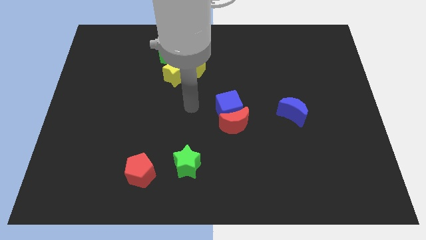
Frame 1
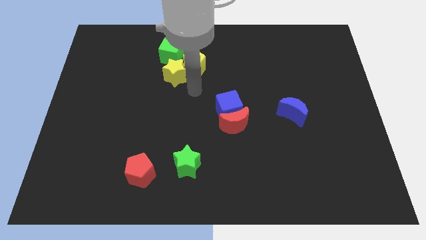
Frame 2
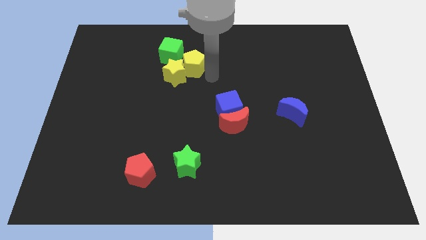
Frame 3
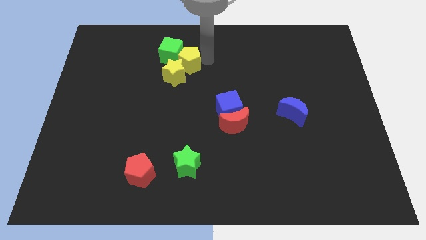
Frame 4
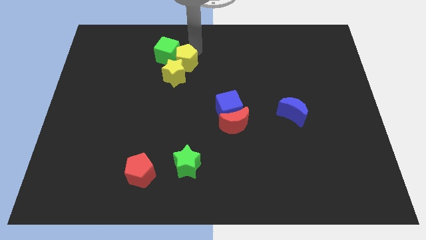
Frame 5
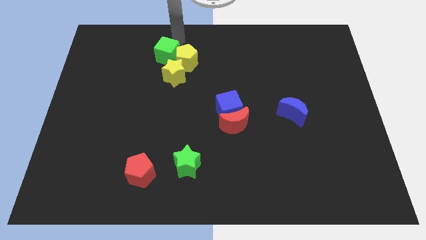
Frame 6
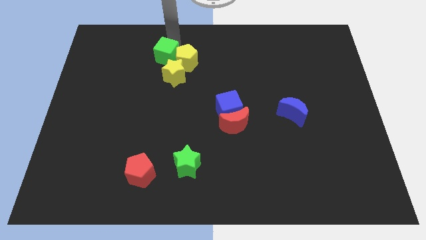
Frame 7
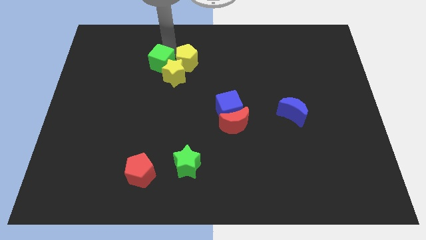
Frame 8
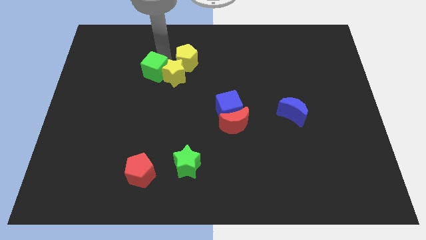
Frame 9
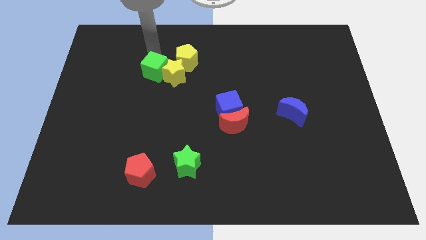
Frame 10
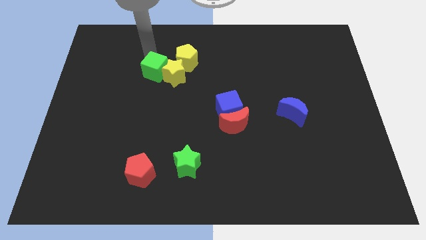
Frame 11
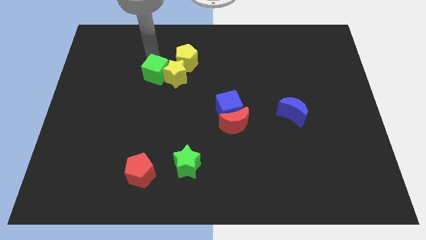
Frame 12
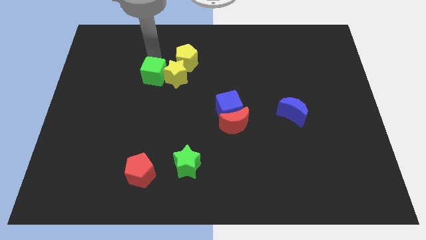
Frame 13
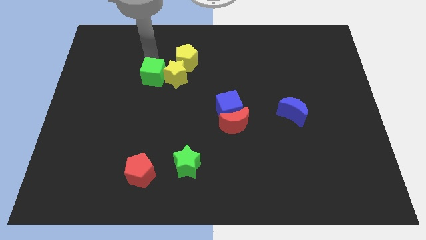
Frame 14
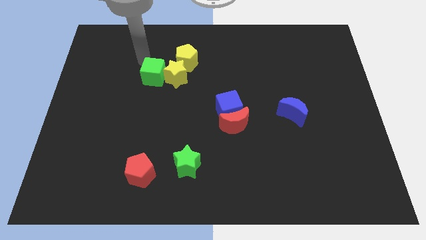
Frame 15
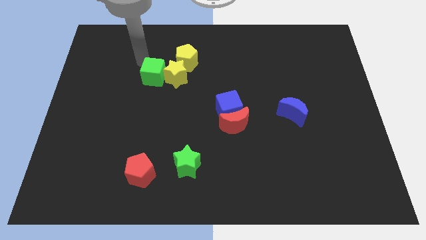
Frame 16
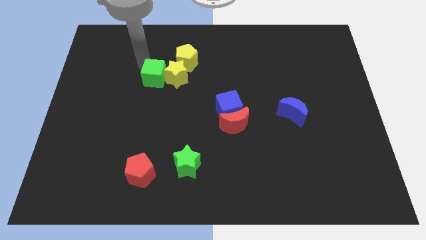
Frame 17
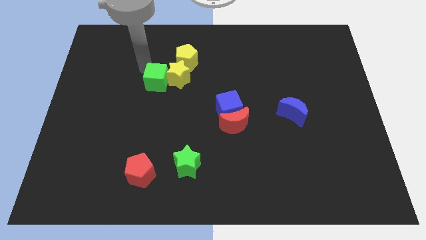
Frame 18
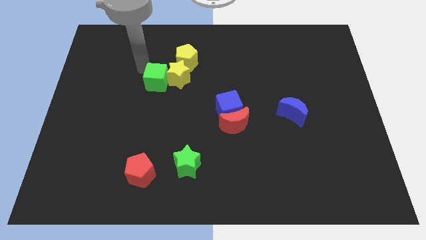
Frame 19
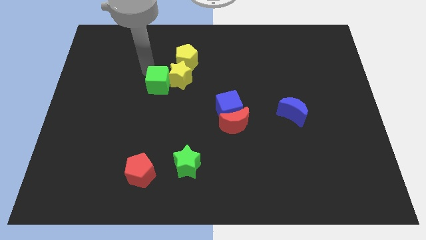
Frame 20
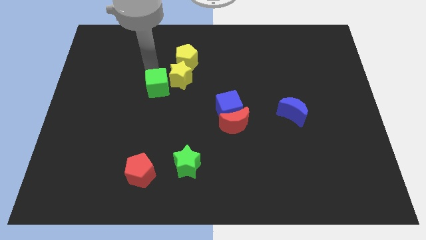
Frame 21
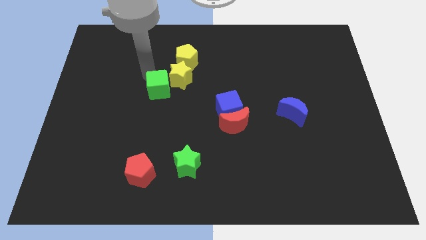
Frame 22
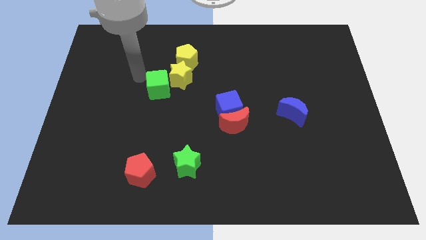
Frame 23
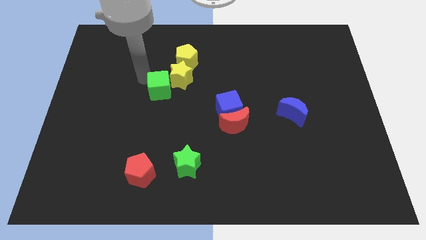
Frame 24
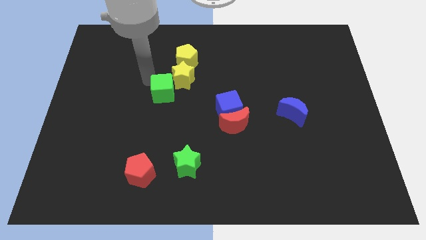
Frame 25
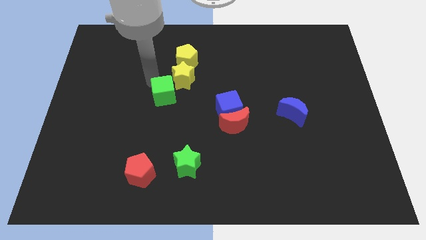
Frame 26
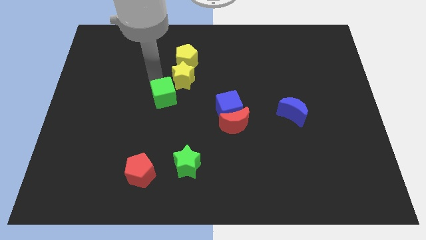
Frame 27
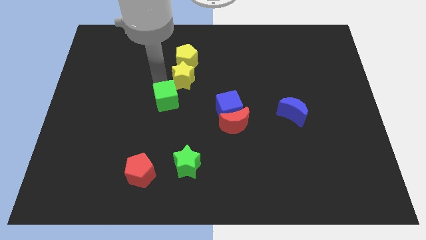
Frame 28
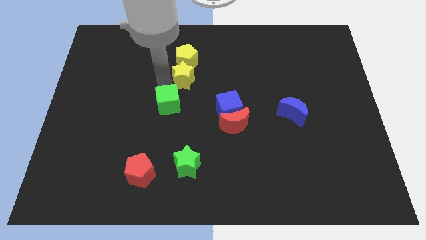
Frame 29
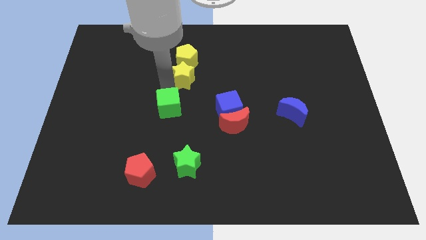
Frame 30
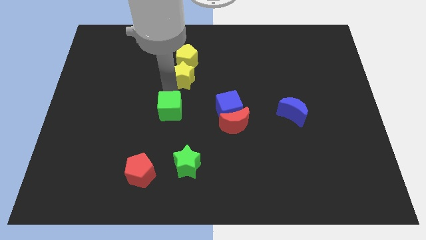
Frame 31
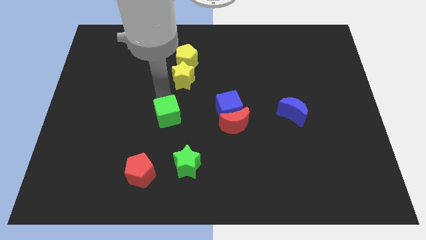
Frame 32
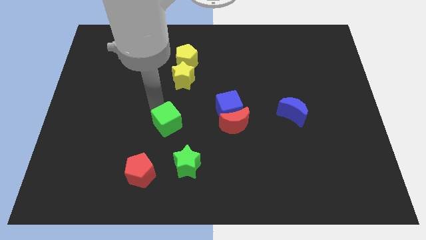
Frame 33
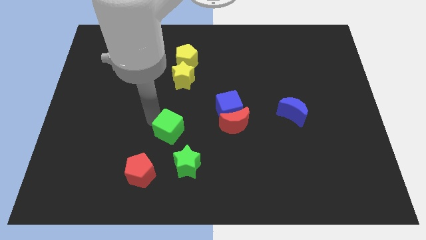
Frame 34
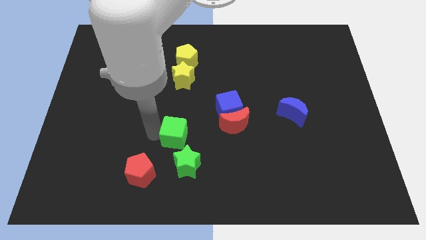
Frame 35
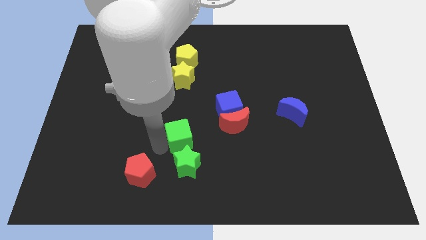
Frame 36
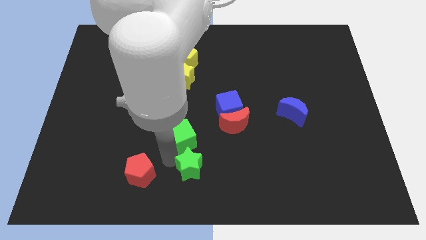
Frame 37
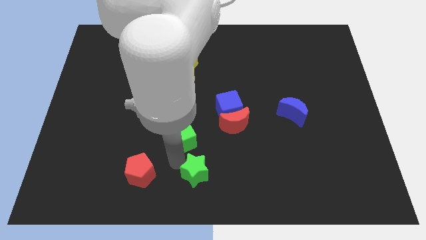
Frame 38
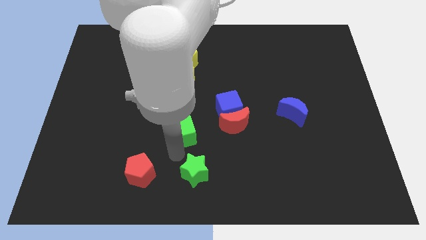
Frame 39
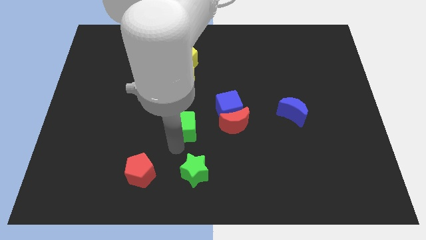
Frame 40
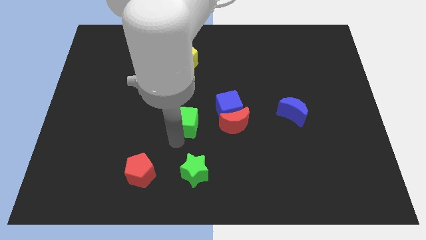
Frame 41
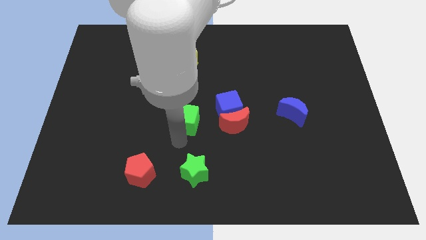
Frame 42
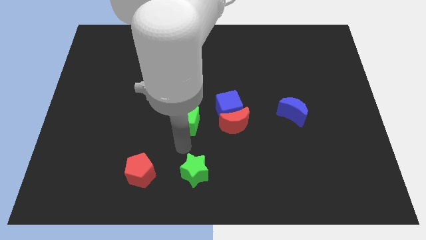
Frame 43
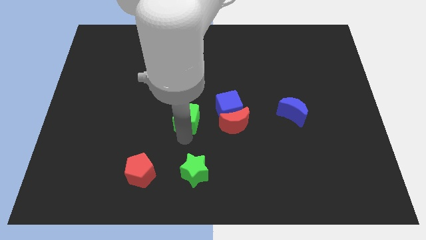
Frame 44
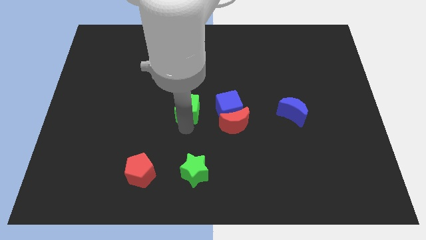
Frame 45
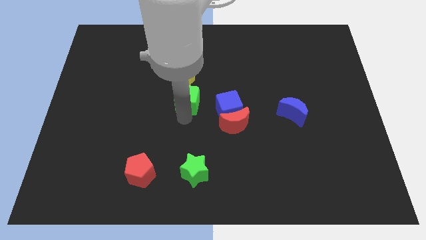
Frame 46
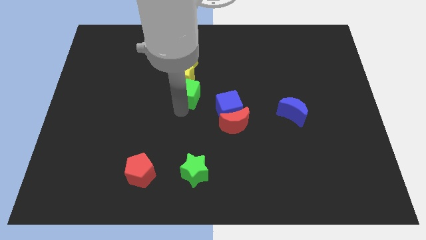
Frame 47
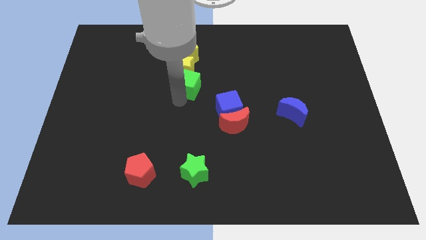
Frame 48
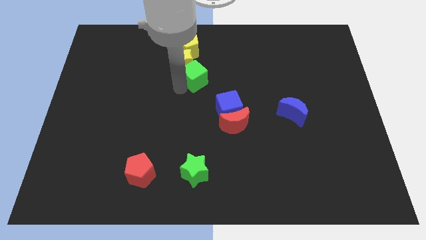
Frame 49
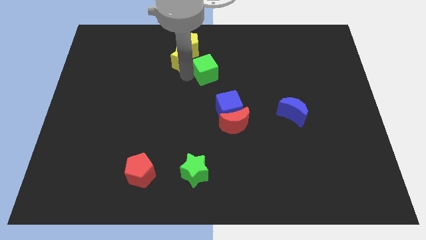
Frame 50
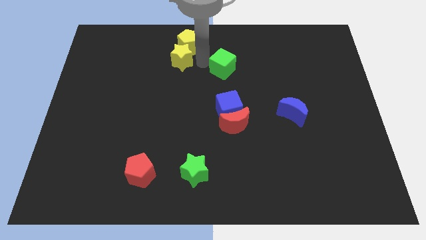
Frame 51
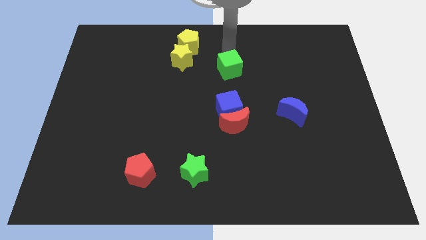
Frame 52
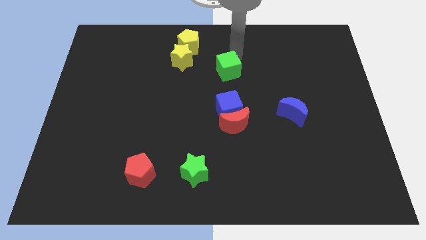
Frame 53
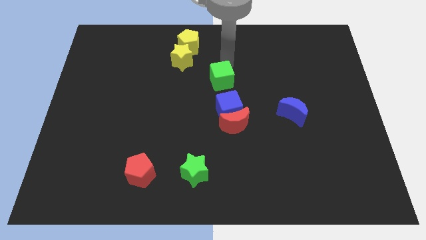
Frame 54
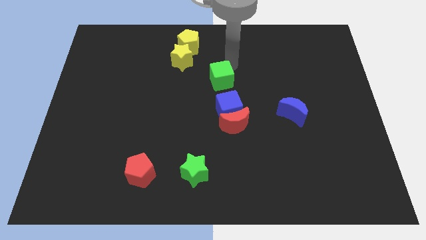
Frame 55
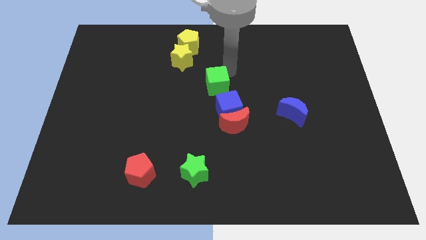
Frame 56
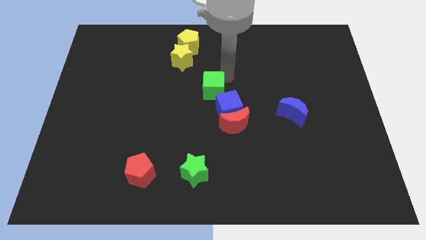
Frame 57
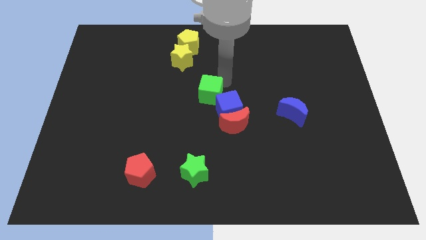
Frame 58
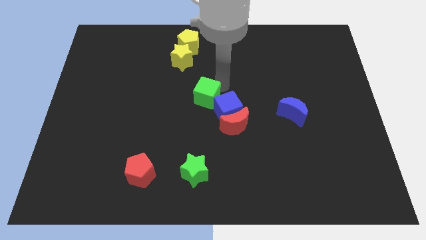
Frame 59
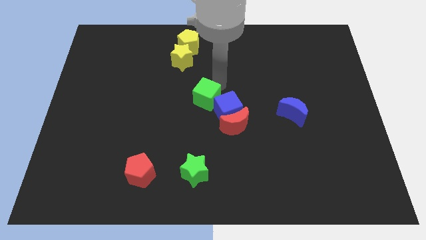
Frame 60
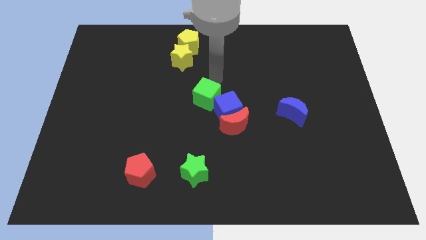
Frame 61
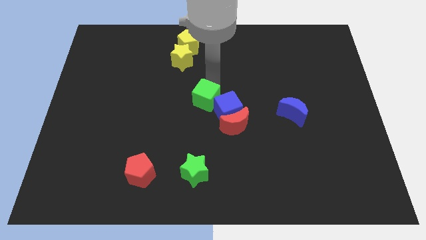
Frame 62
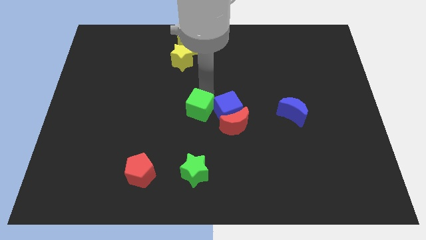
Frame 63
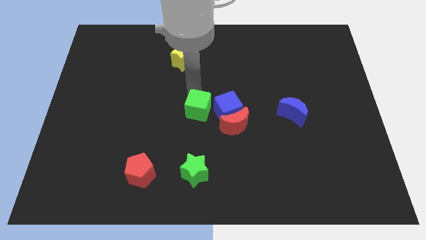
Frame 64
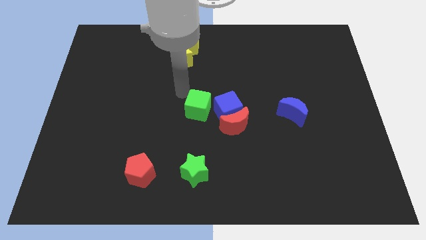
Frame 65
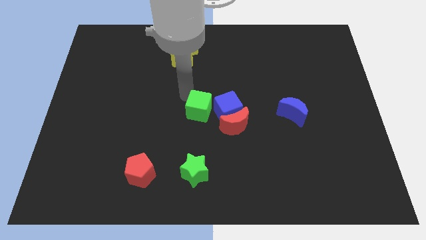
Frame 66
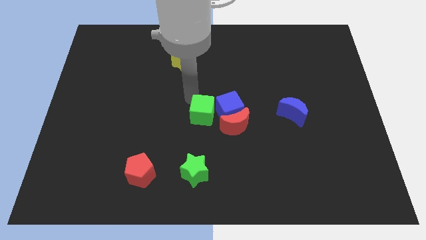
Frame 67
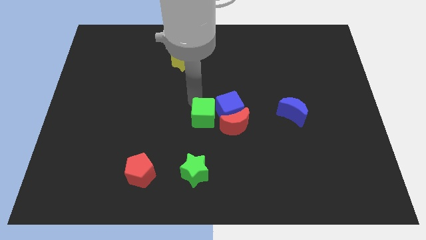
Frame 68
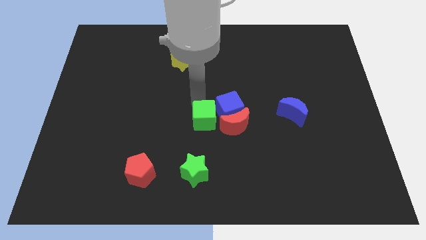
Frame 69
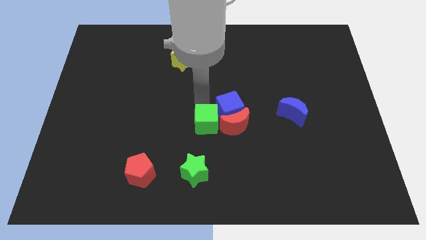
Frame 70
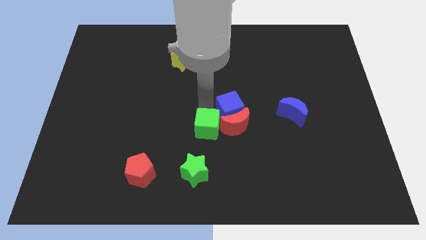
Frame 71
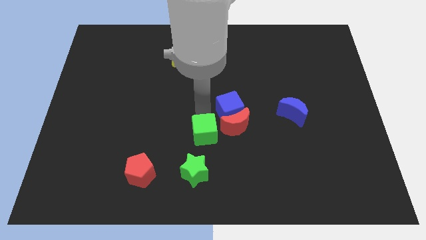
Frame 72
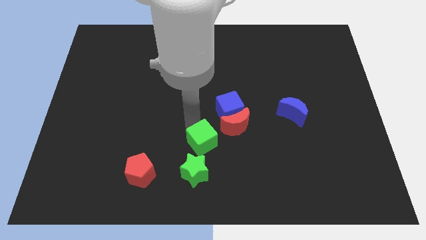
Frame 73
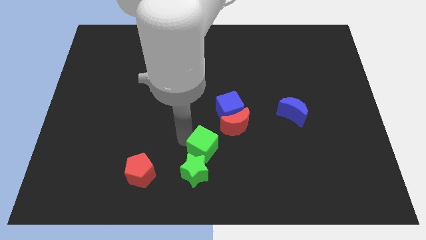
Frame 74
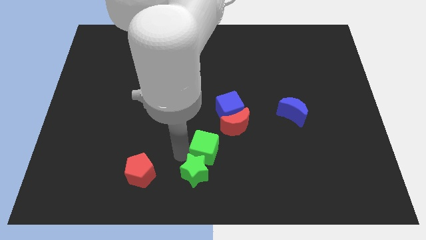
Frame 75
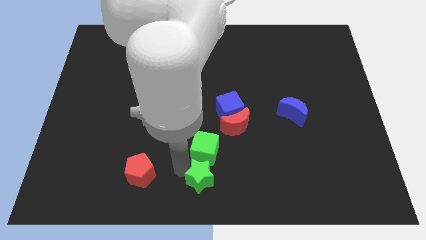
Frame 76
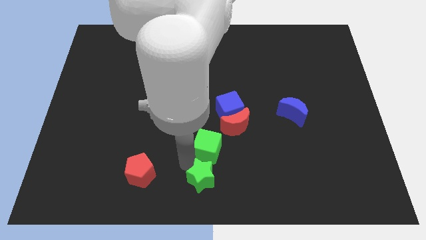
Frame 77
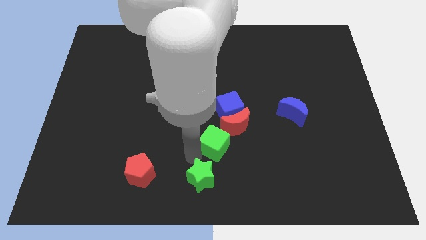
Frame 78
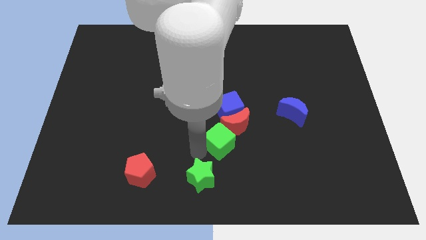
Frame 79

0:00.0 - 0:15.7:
slide the green cube towards the red moon
